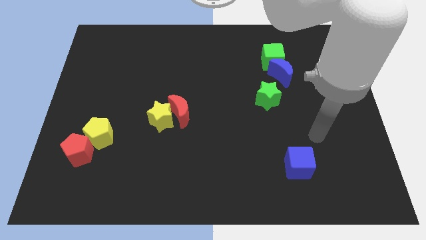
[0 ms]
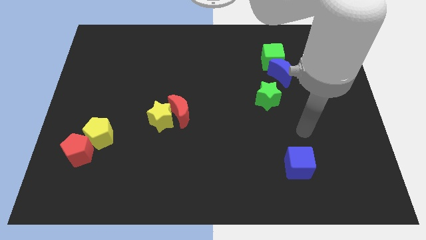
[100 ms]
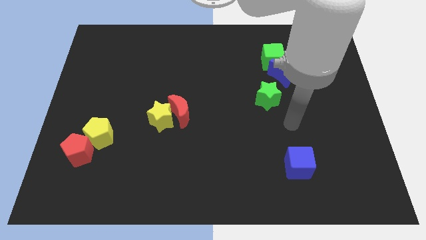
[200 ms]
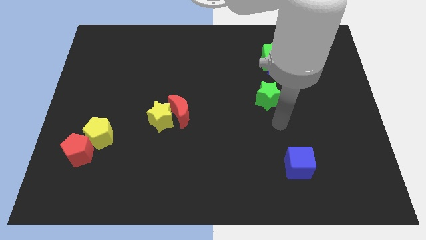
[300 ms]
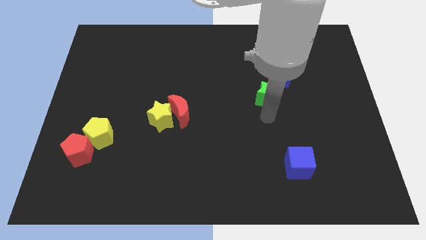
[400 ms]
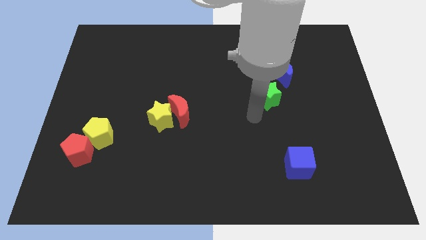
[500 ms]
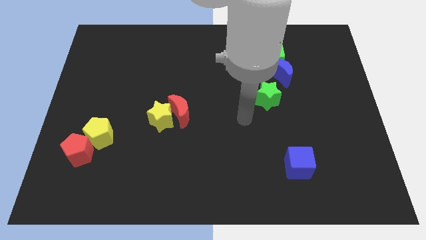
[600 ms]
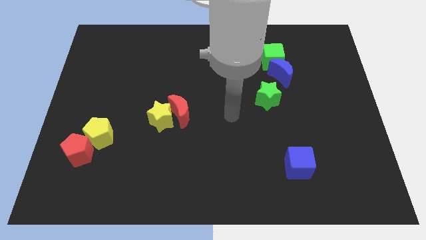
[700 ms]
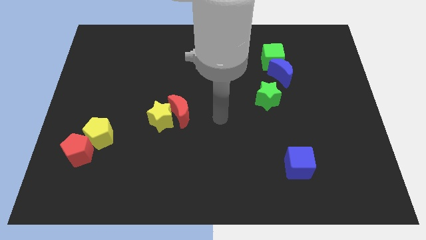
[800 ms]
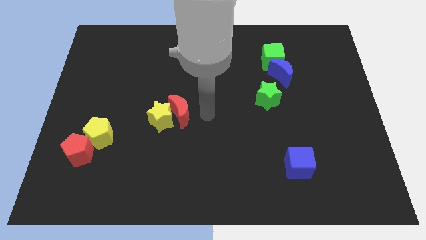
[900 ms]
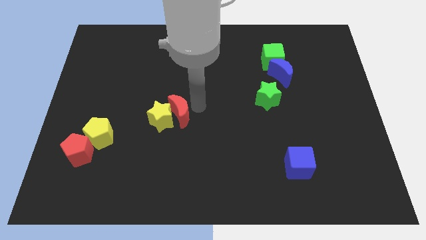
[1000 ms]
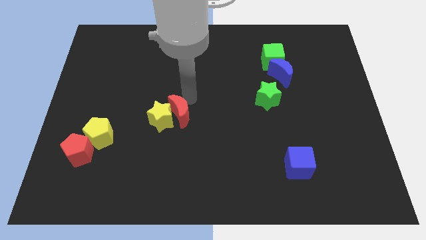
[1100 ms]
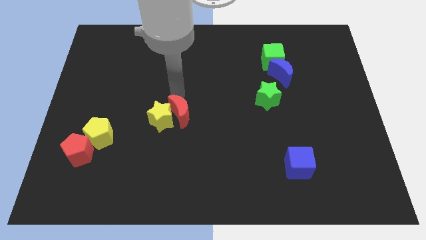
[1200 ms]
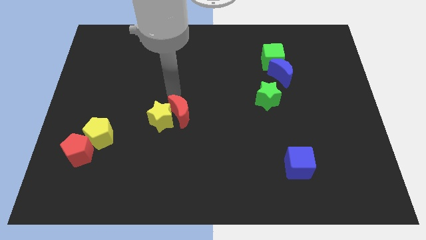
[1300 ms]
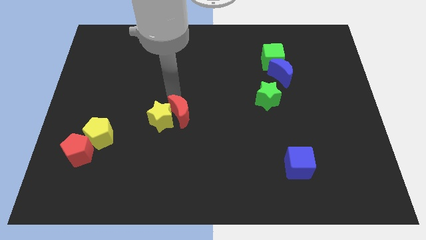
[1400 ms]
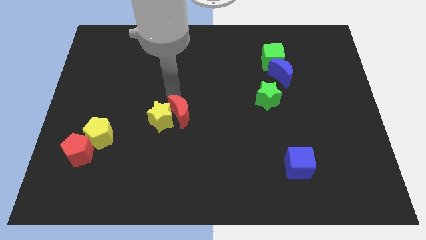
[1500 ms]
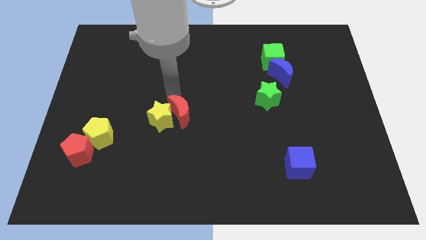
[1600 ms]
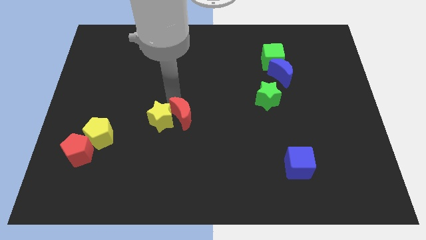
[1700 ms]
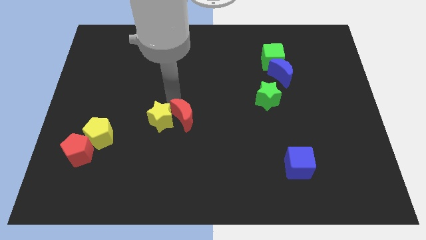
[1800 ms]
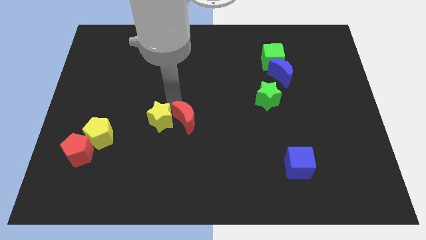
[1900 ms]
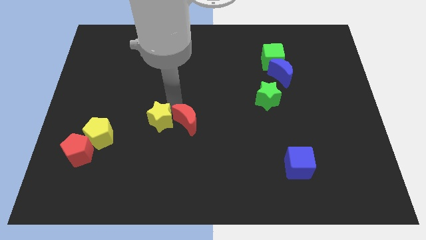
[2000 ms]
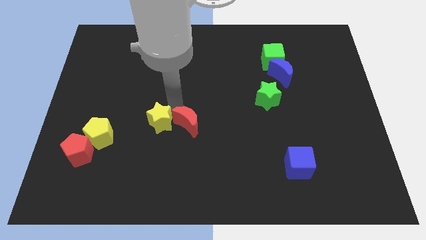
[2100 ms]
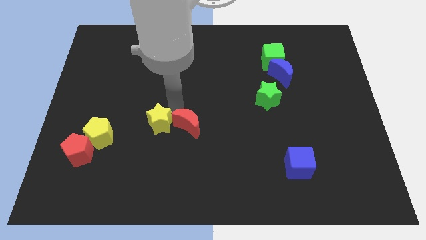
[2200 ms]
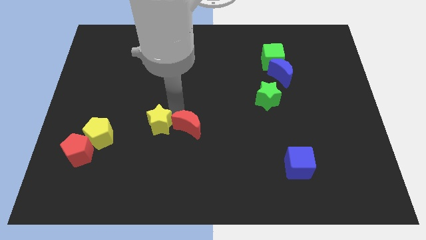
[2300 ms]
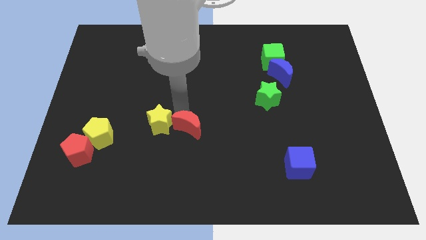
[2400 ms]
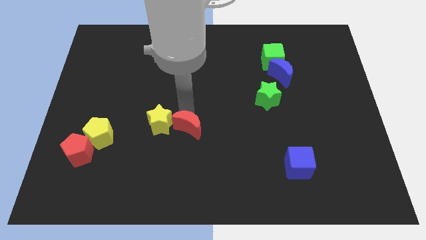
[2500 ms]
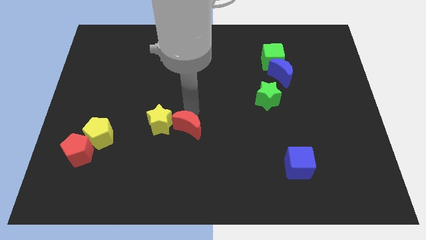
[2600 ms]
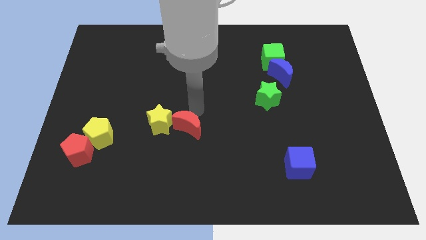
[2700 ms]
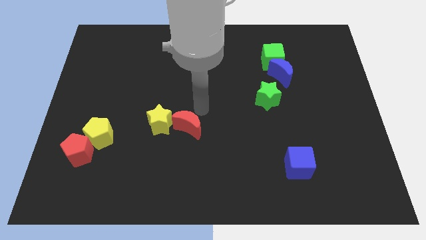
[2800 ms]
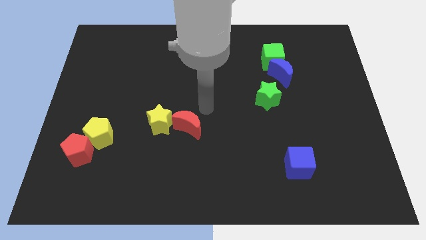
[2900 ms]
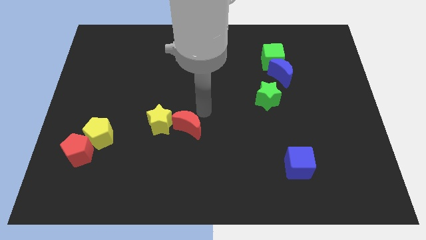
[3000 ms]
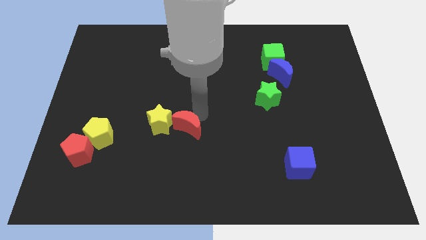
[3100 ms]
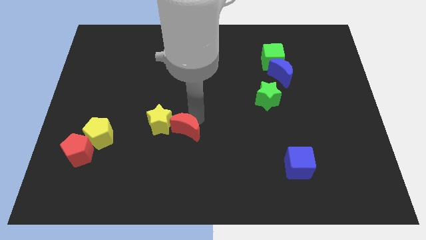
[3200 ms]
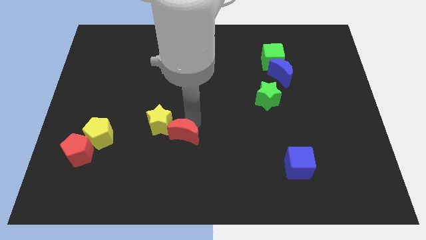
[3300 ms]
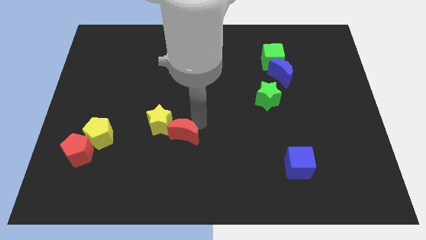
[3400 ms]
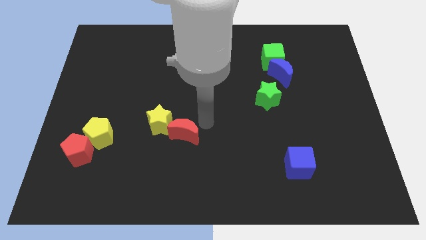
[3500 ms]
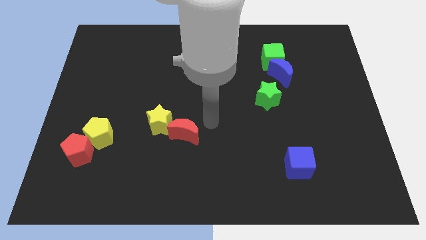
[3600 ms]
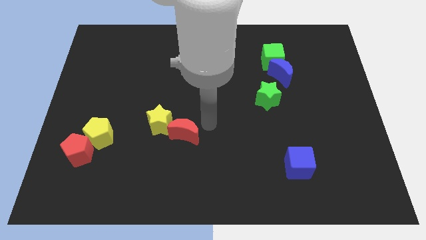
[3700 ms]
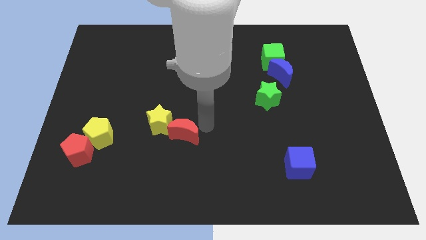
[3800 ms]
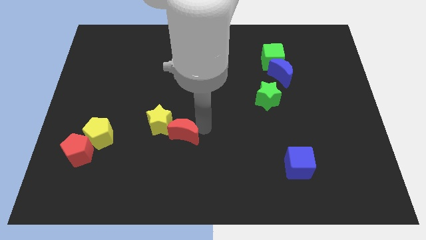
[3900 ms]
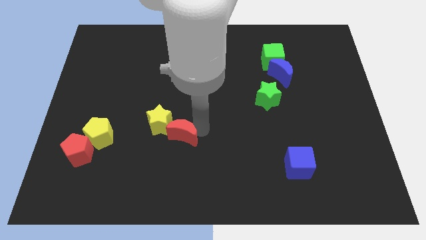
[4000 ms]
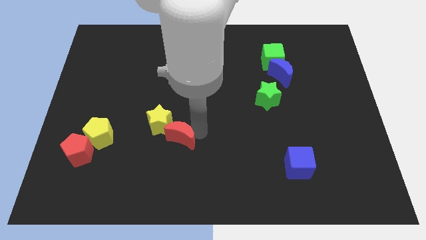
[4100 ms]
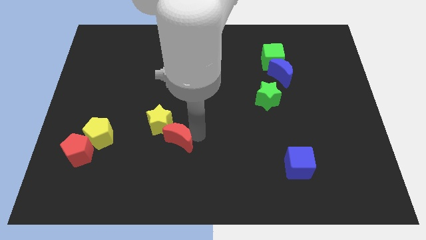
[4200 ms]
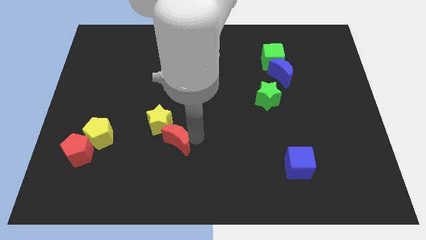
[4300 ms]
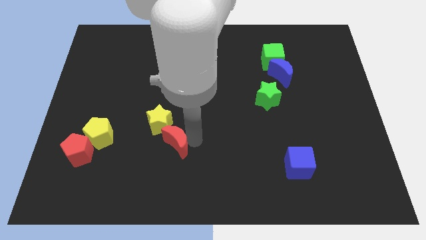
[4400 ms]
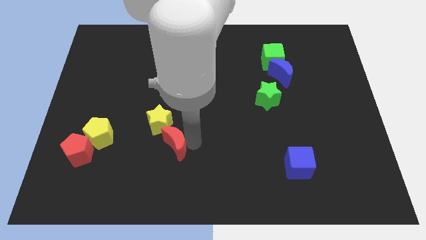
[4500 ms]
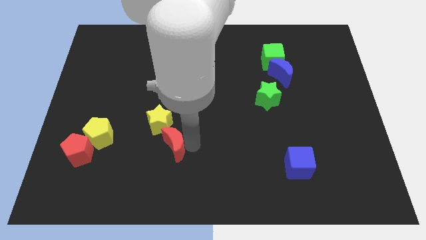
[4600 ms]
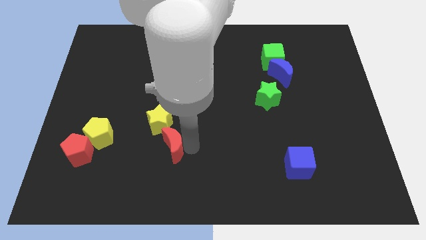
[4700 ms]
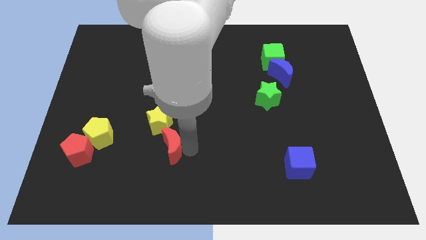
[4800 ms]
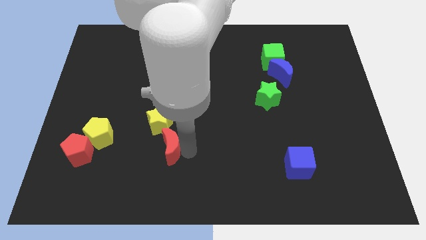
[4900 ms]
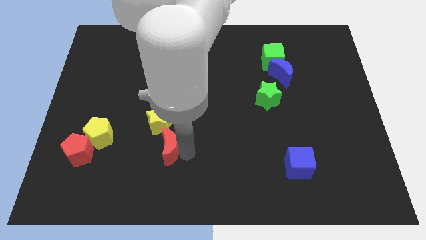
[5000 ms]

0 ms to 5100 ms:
slightly push the red moon down and then left

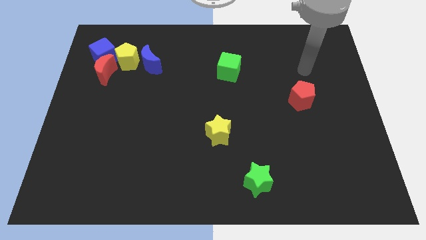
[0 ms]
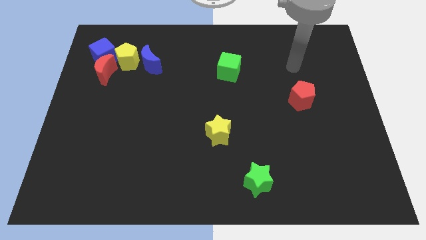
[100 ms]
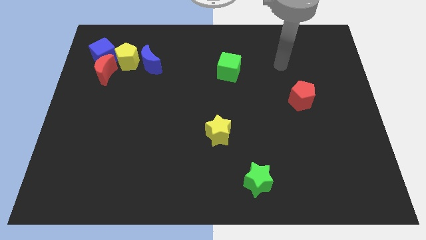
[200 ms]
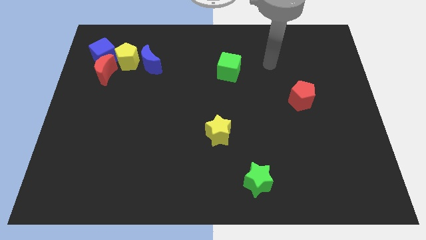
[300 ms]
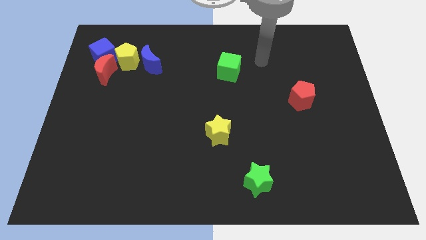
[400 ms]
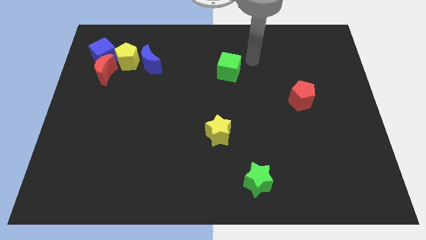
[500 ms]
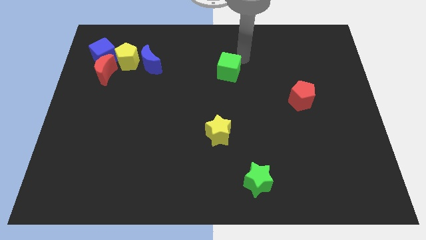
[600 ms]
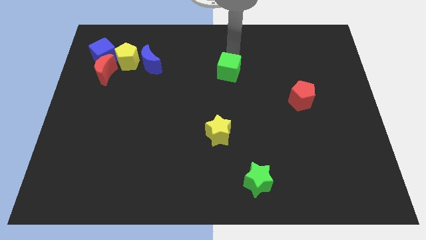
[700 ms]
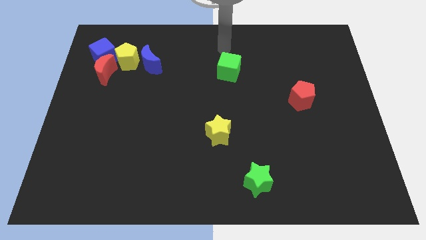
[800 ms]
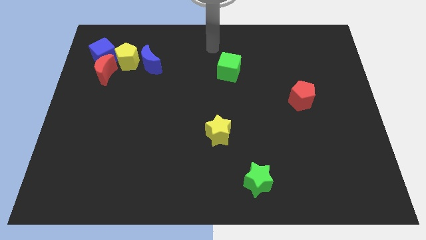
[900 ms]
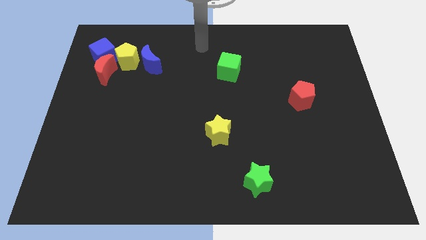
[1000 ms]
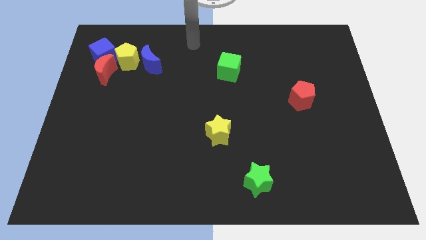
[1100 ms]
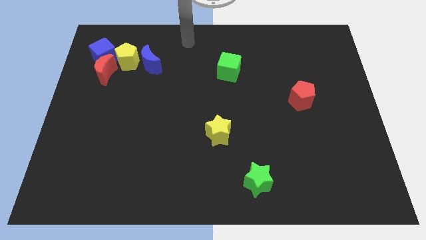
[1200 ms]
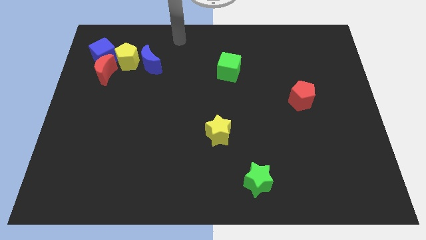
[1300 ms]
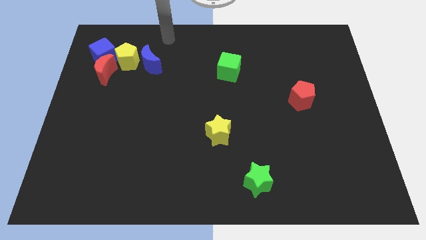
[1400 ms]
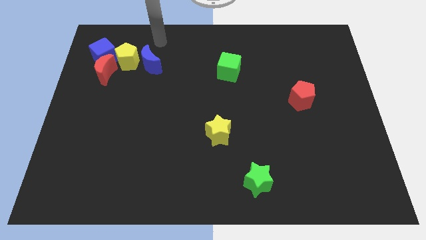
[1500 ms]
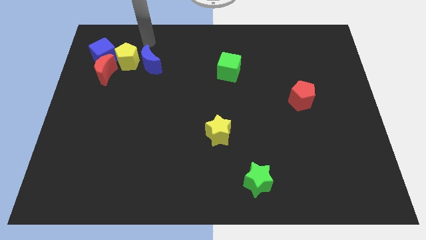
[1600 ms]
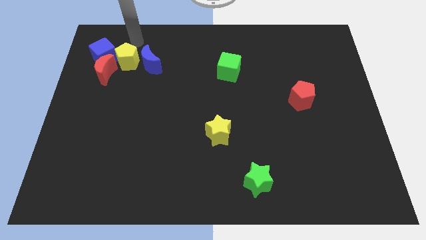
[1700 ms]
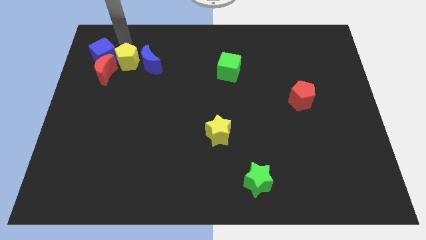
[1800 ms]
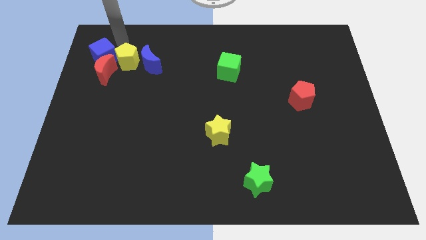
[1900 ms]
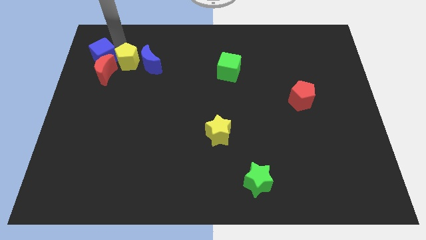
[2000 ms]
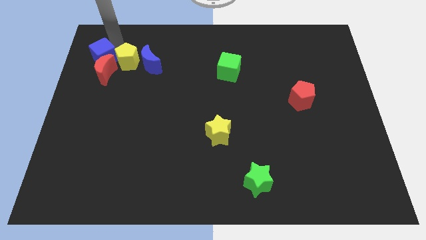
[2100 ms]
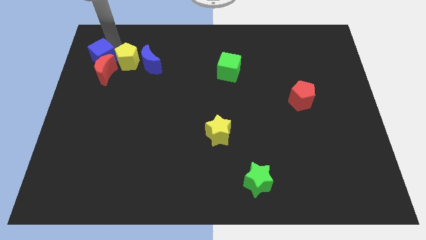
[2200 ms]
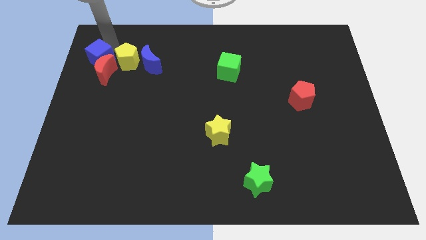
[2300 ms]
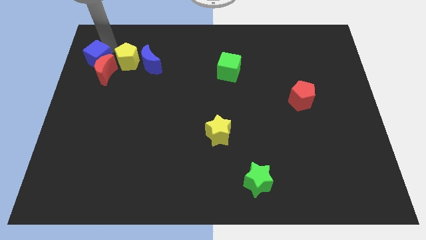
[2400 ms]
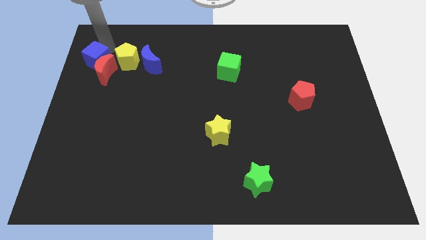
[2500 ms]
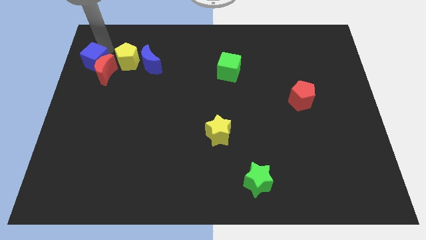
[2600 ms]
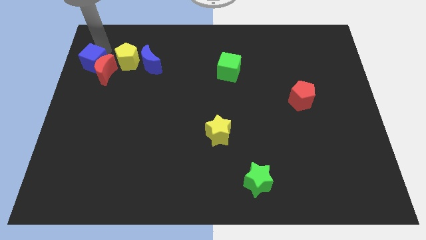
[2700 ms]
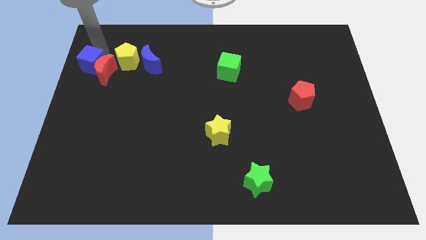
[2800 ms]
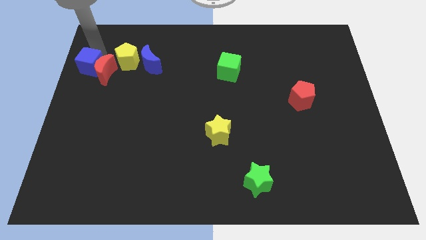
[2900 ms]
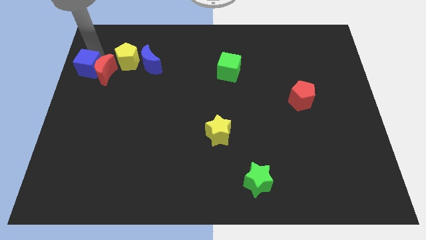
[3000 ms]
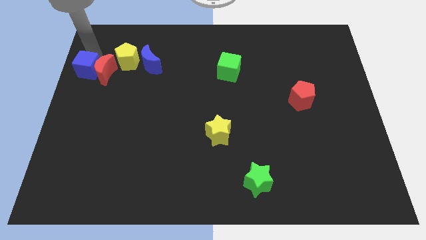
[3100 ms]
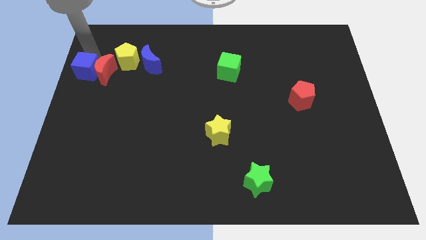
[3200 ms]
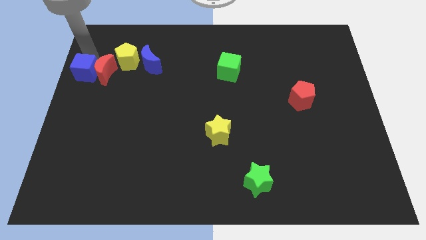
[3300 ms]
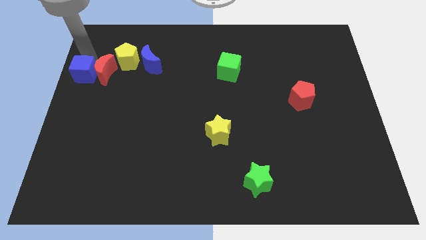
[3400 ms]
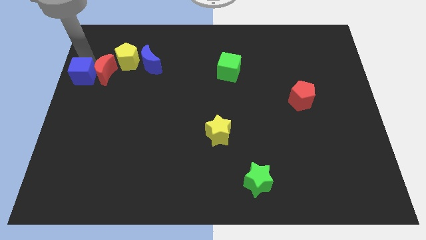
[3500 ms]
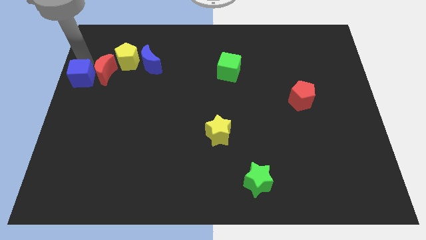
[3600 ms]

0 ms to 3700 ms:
push the blue cube down somewhat
